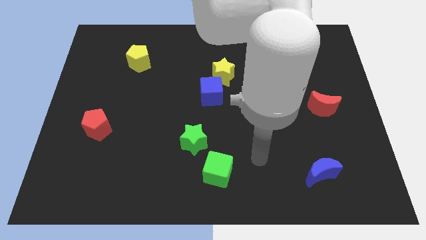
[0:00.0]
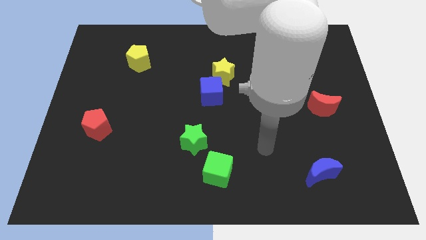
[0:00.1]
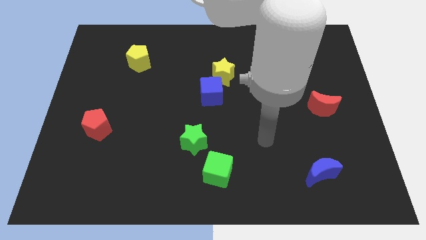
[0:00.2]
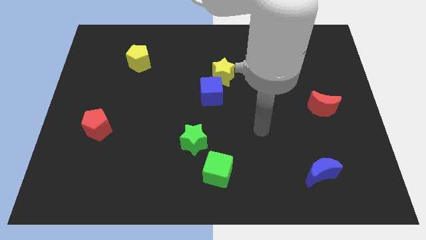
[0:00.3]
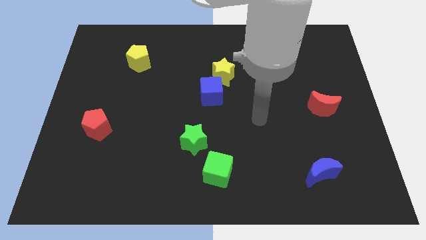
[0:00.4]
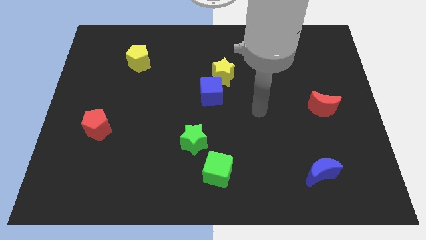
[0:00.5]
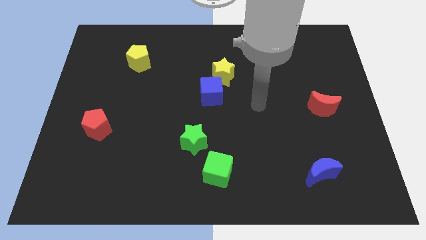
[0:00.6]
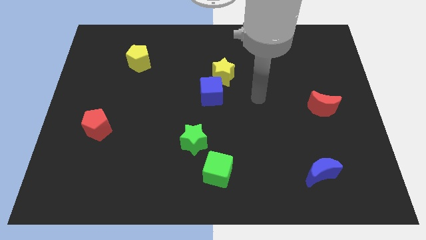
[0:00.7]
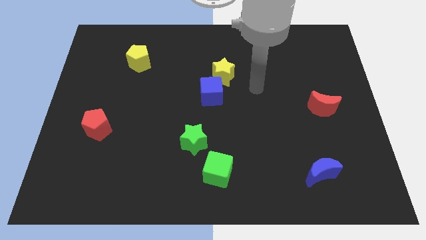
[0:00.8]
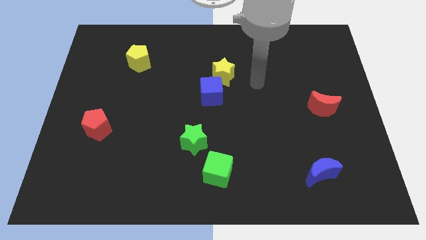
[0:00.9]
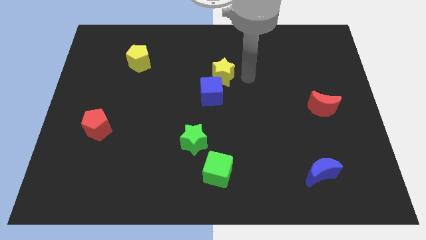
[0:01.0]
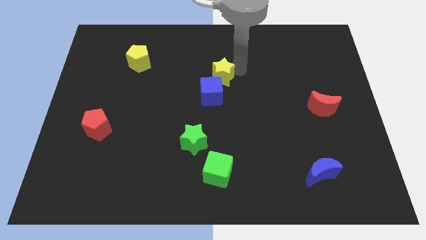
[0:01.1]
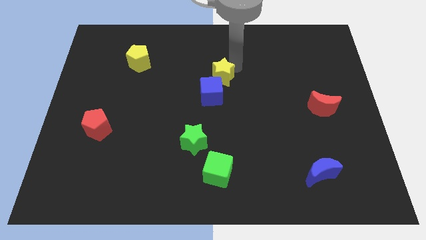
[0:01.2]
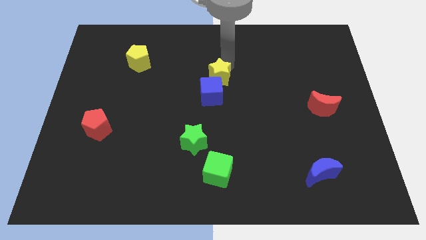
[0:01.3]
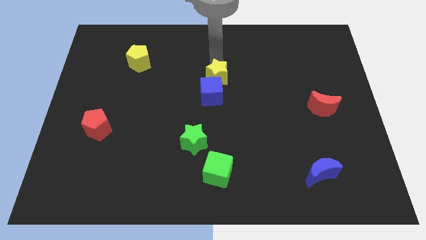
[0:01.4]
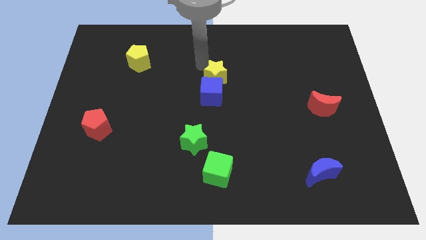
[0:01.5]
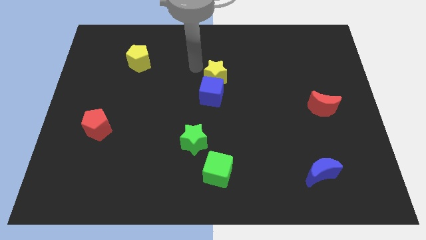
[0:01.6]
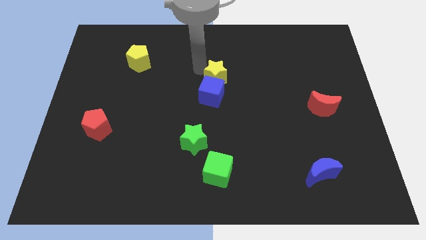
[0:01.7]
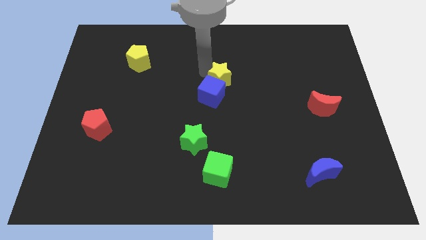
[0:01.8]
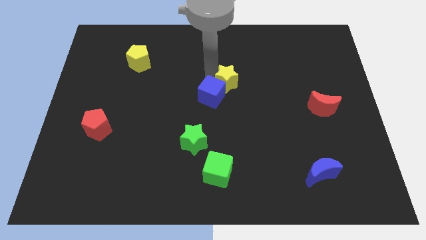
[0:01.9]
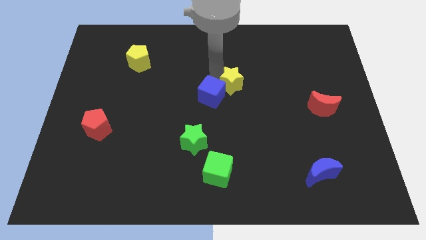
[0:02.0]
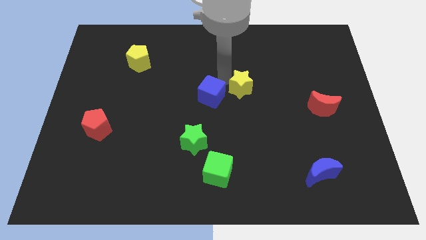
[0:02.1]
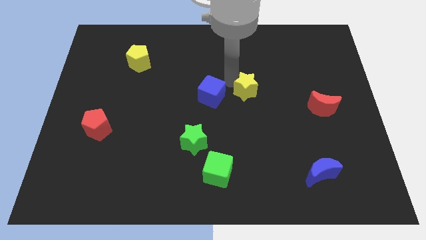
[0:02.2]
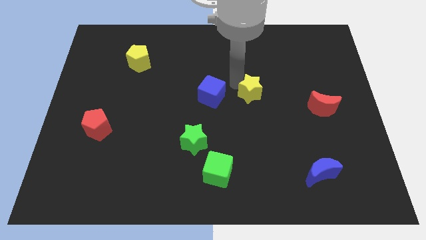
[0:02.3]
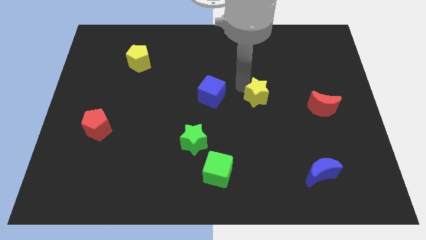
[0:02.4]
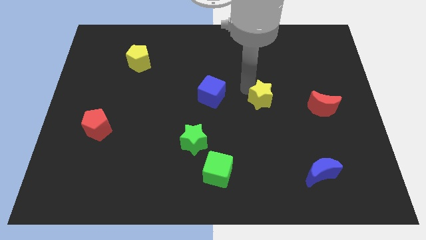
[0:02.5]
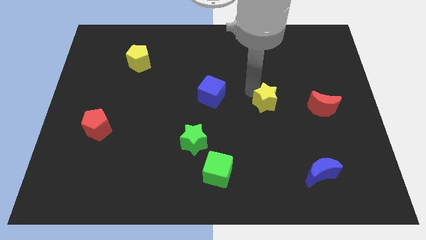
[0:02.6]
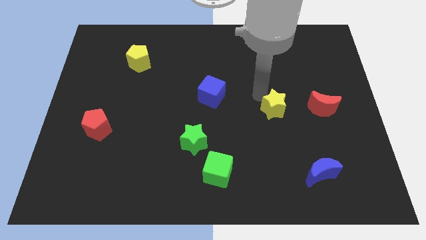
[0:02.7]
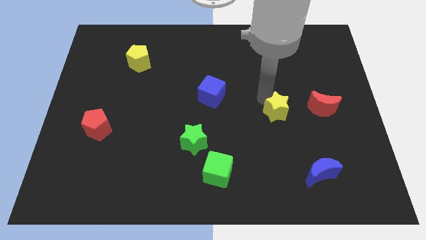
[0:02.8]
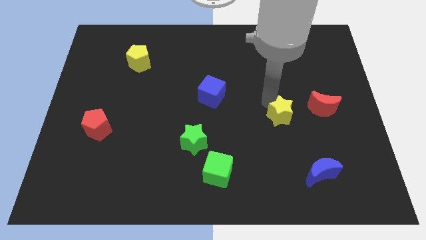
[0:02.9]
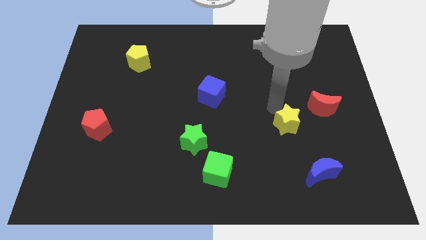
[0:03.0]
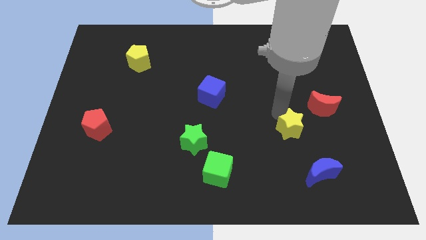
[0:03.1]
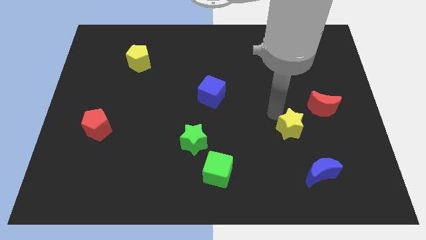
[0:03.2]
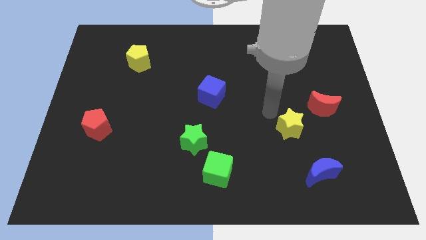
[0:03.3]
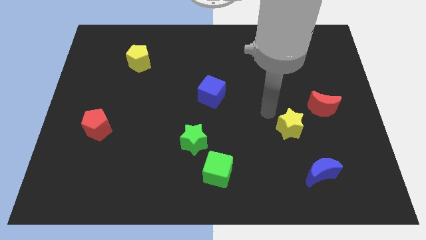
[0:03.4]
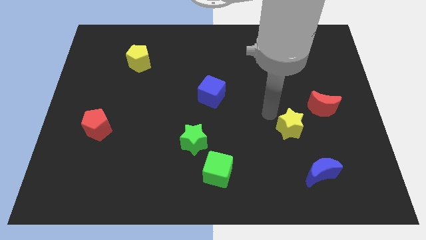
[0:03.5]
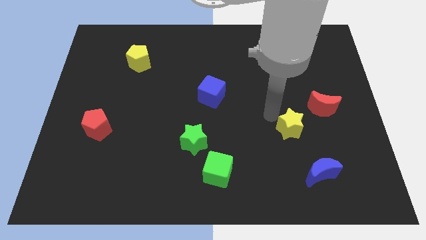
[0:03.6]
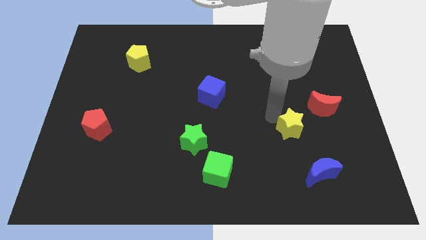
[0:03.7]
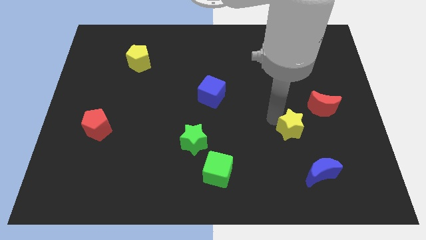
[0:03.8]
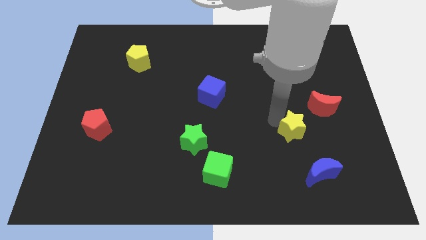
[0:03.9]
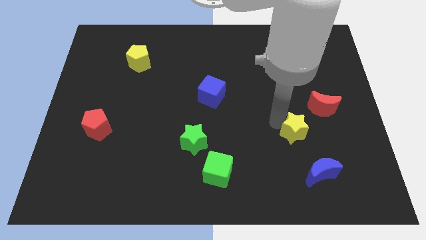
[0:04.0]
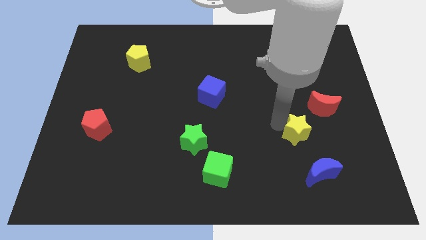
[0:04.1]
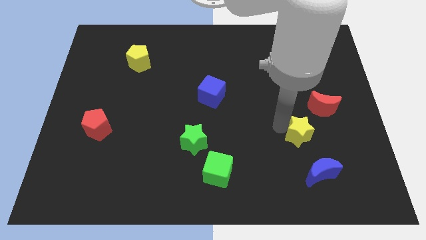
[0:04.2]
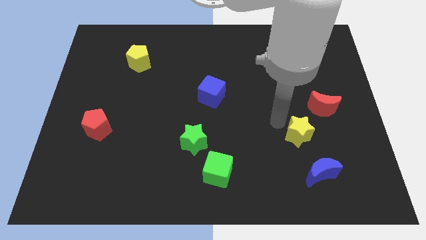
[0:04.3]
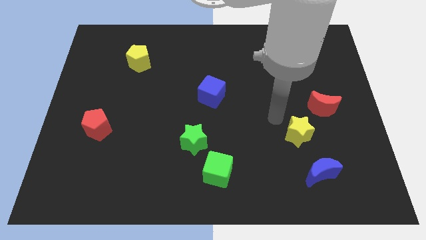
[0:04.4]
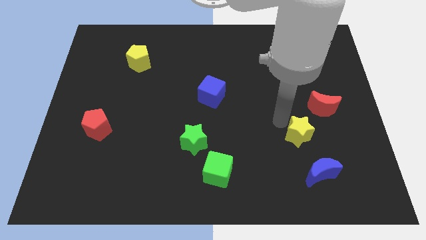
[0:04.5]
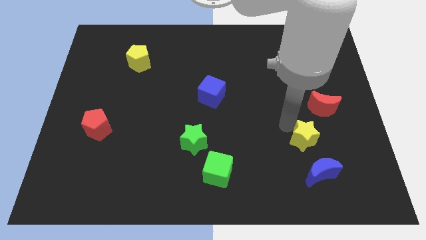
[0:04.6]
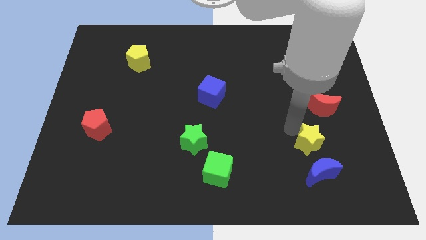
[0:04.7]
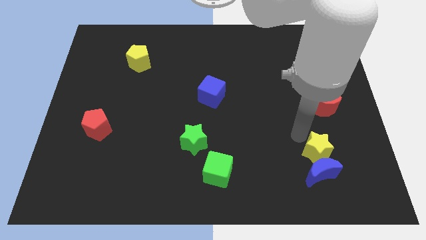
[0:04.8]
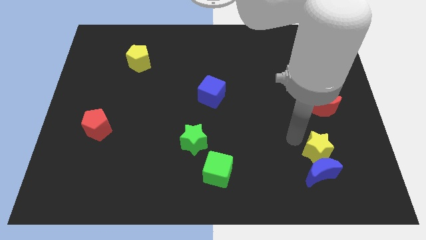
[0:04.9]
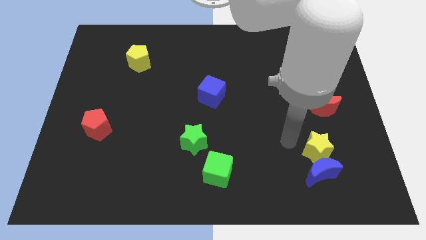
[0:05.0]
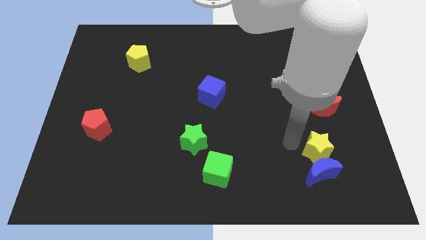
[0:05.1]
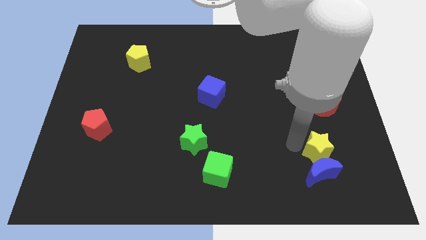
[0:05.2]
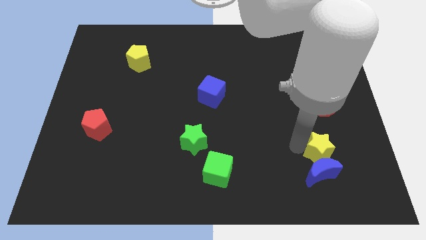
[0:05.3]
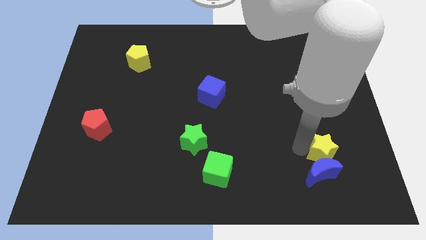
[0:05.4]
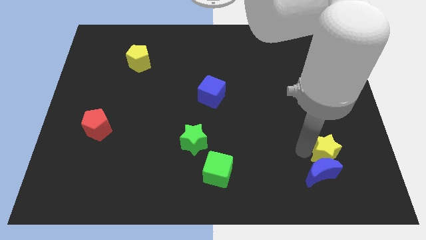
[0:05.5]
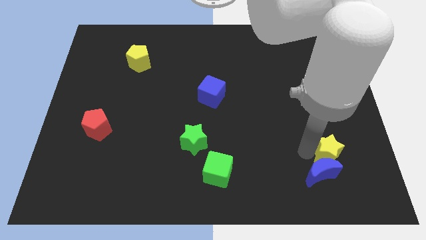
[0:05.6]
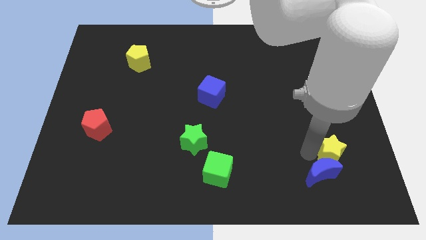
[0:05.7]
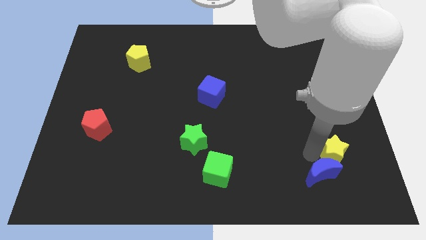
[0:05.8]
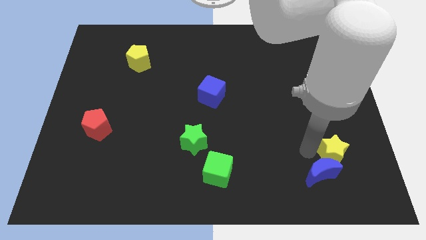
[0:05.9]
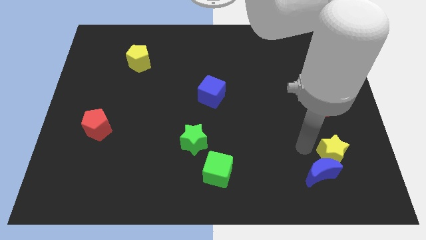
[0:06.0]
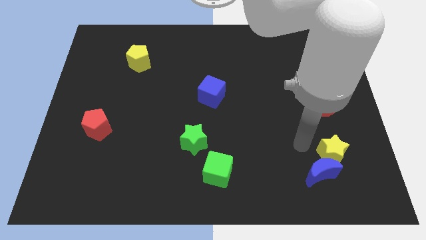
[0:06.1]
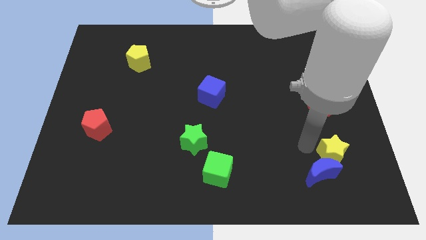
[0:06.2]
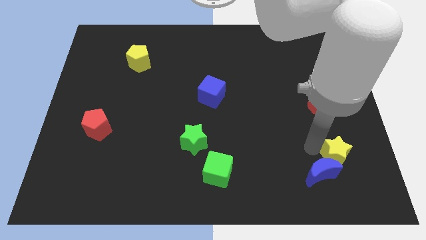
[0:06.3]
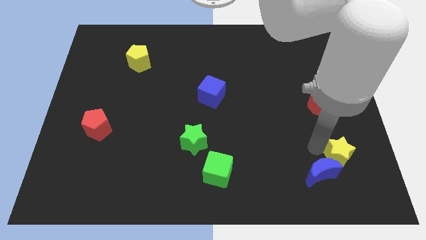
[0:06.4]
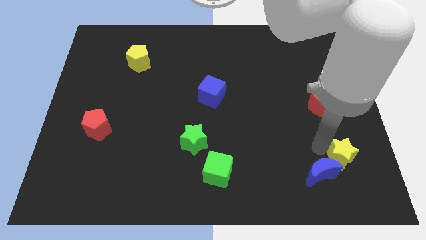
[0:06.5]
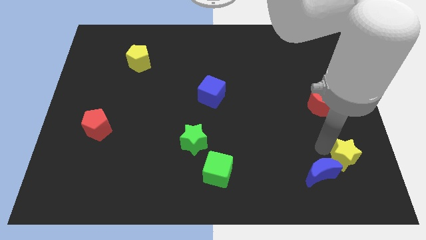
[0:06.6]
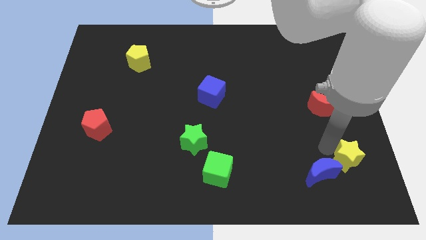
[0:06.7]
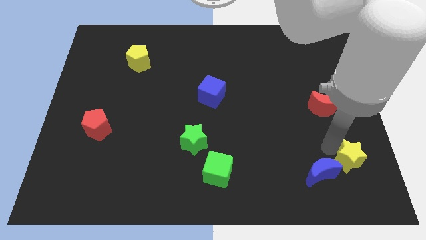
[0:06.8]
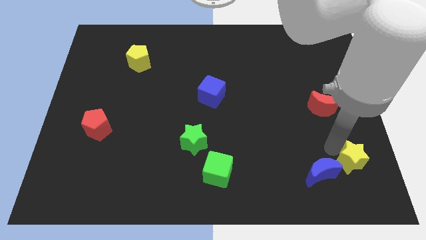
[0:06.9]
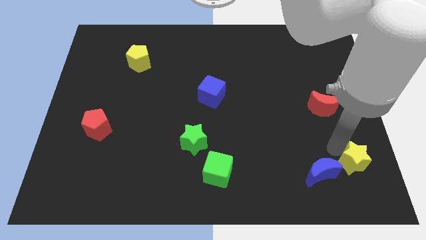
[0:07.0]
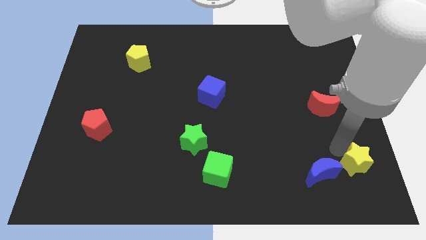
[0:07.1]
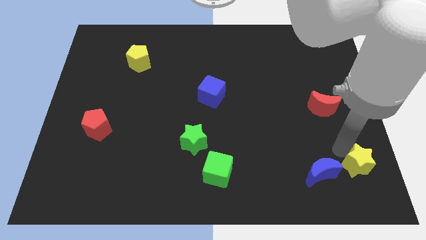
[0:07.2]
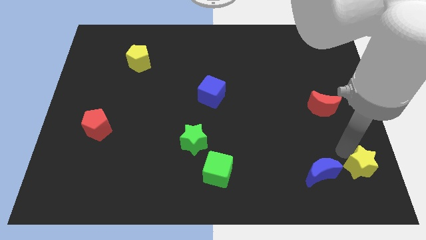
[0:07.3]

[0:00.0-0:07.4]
put the yellow star to the bottom right
